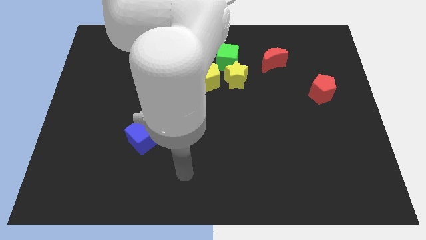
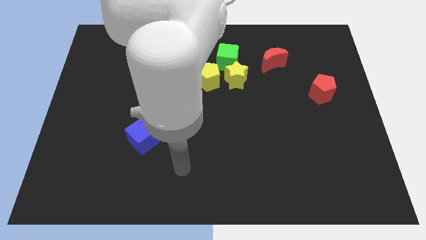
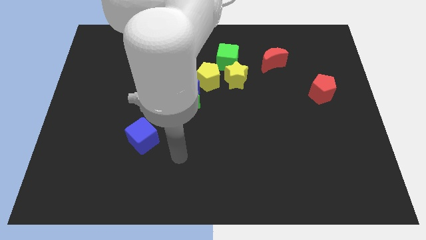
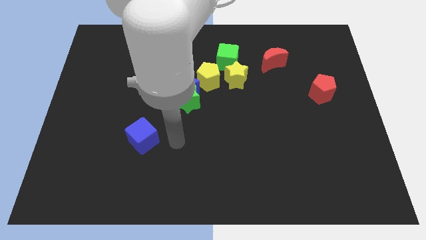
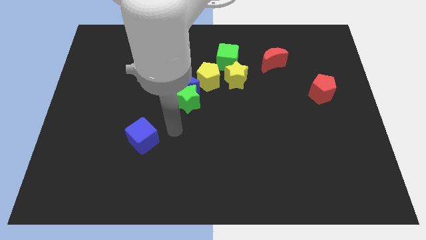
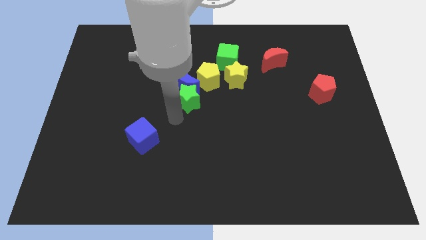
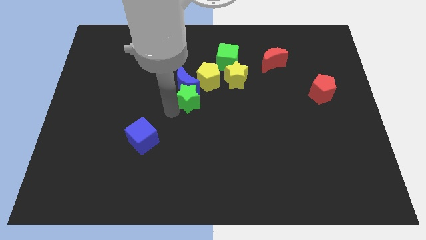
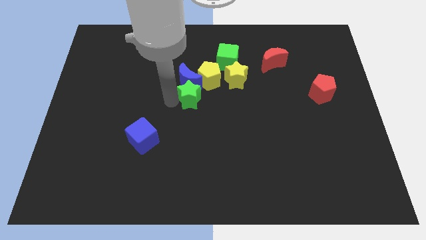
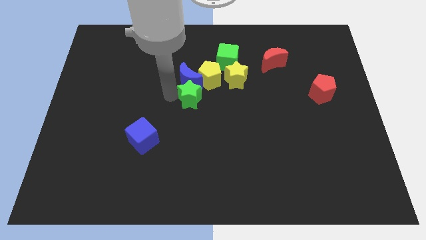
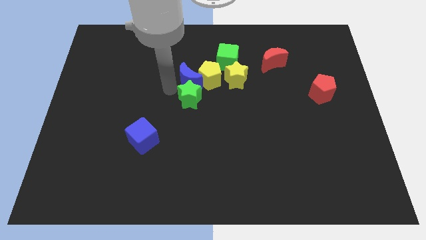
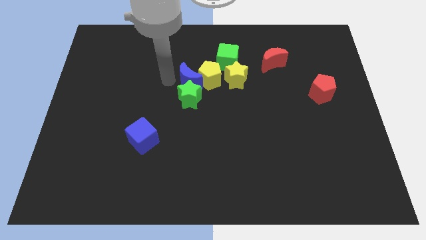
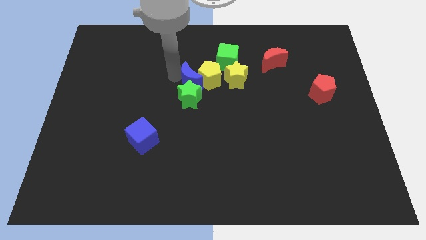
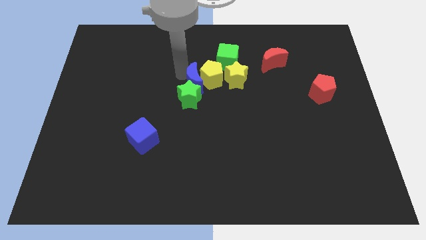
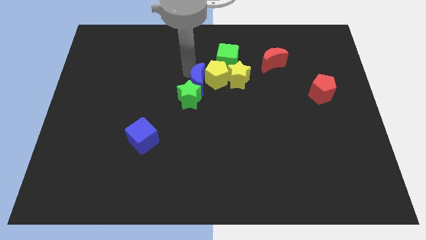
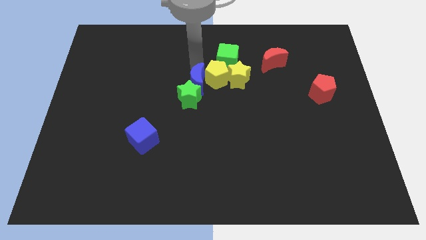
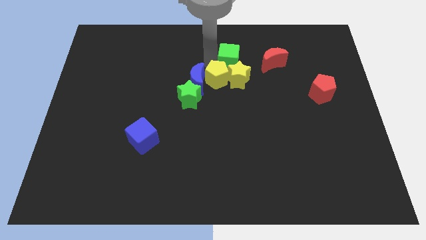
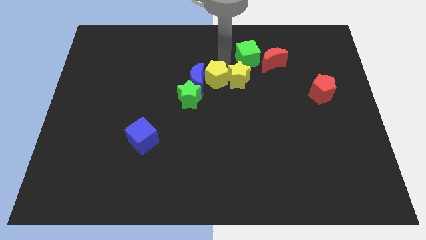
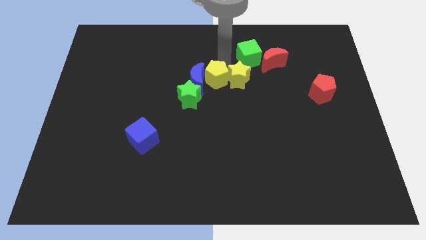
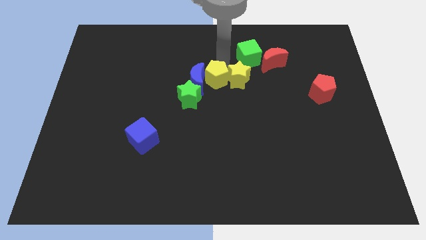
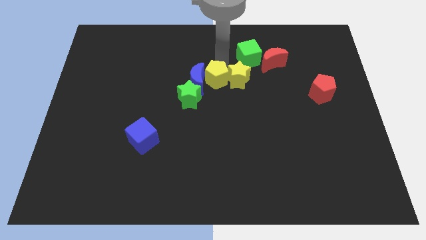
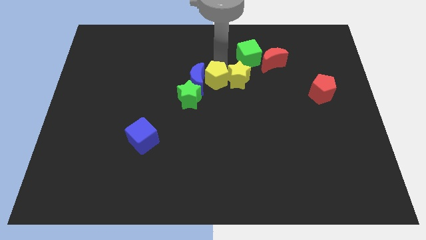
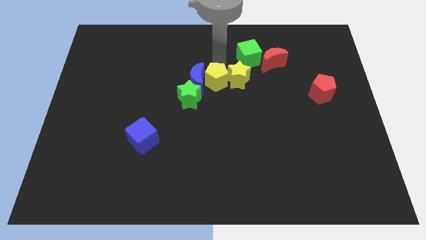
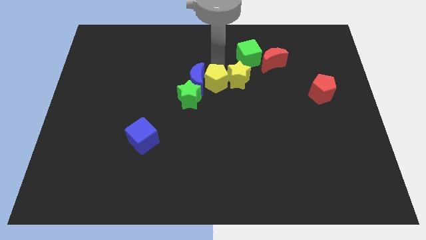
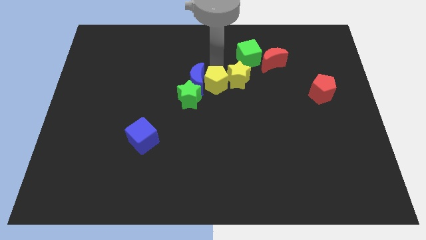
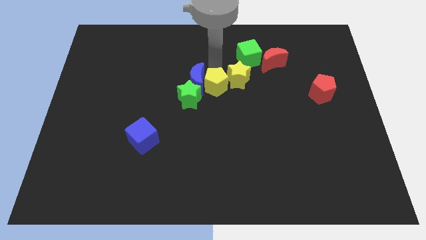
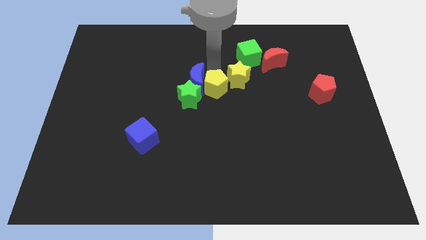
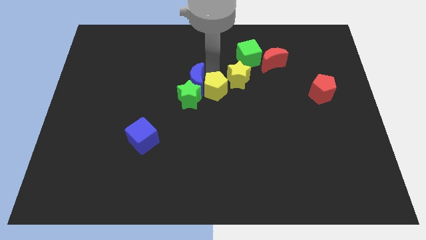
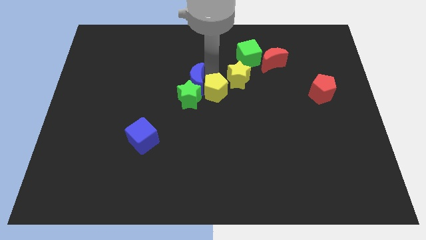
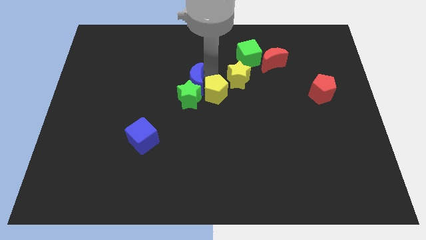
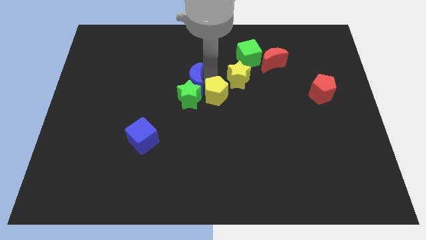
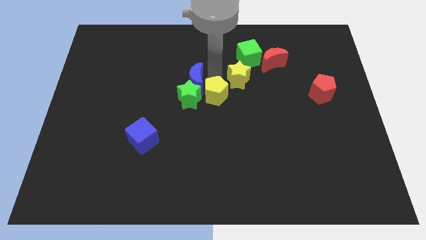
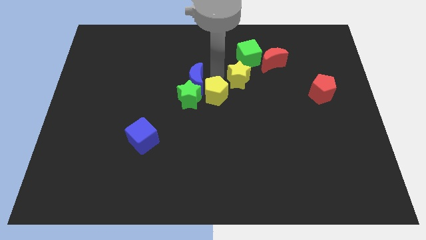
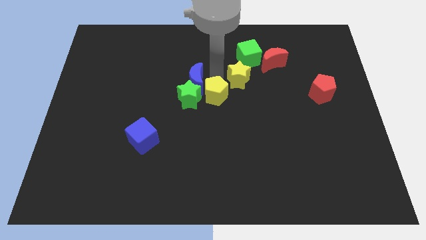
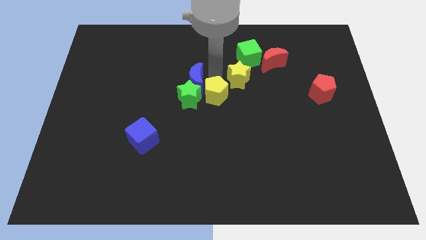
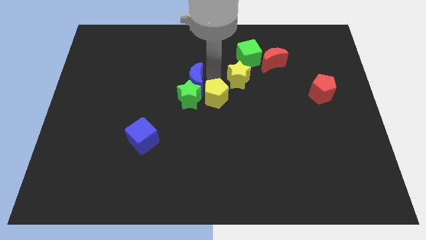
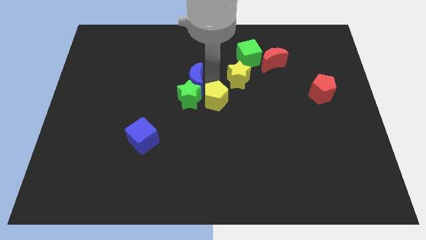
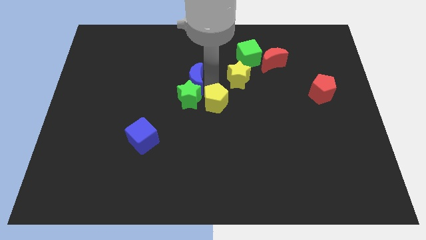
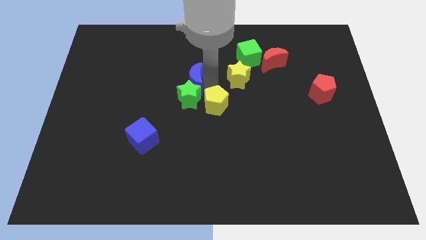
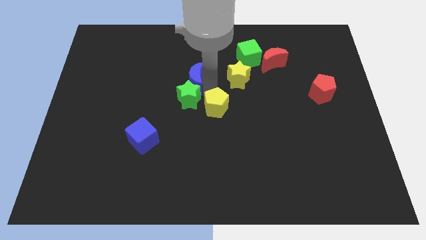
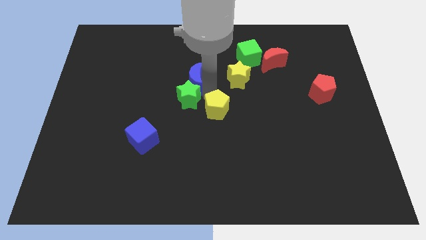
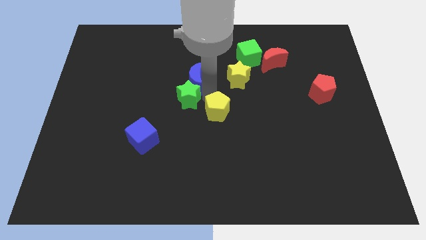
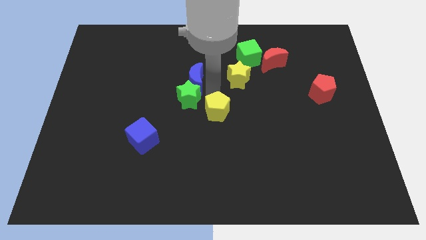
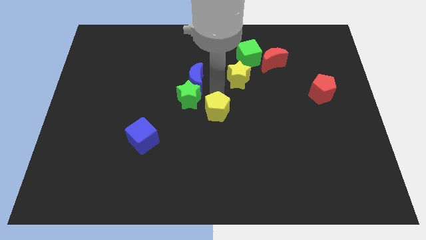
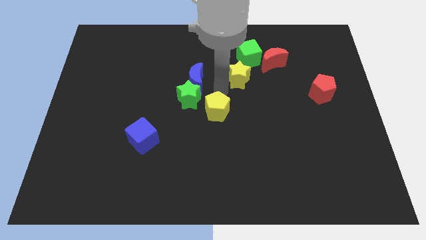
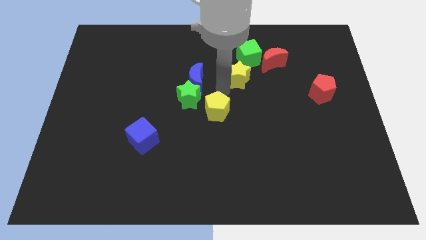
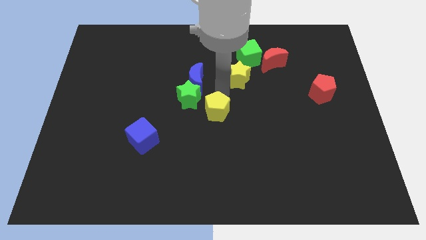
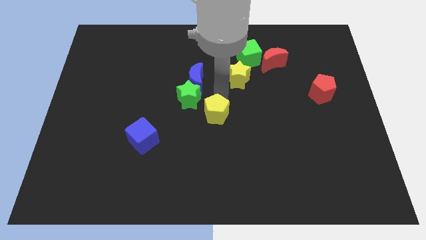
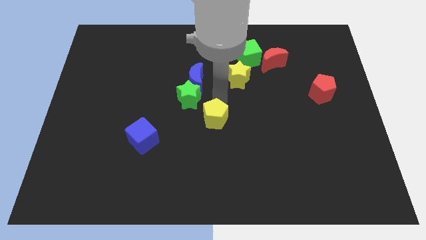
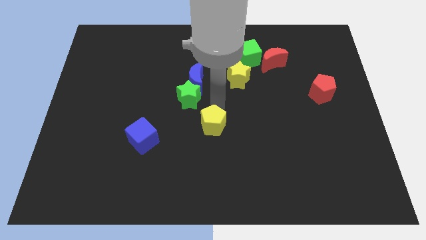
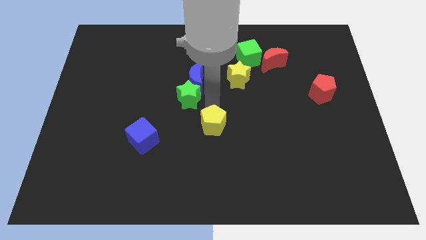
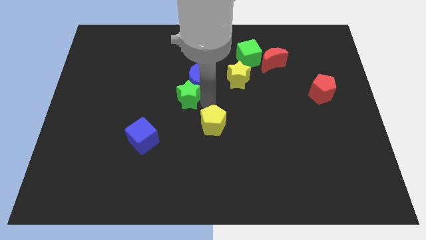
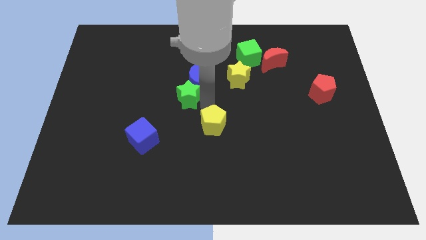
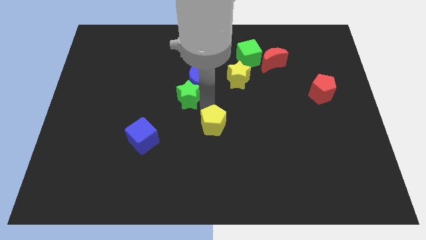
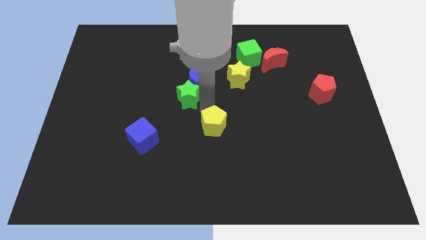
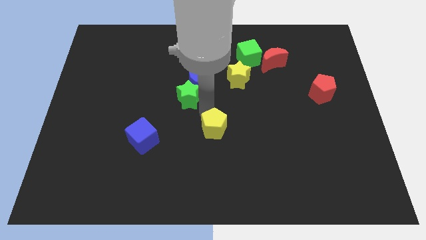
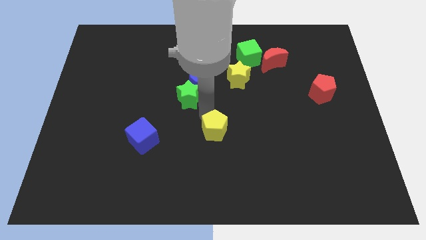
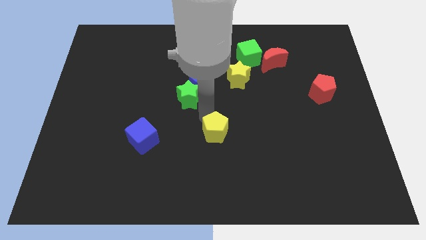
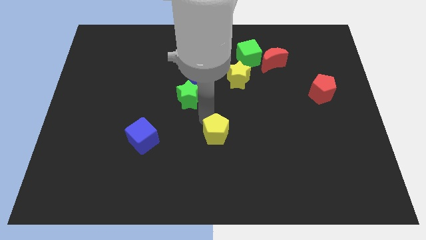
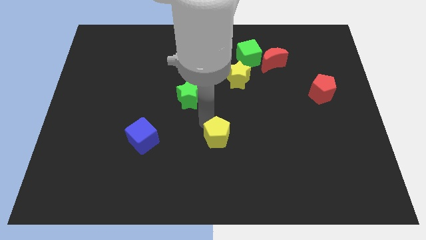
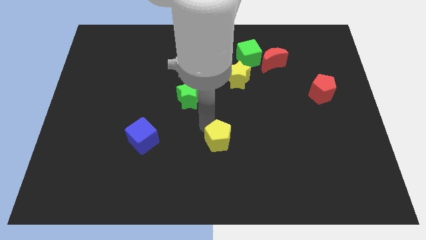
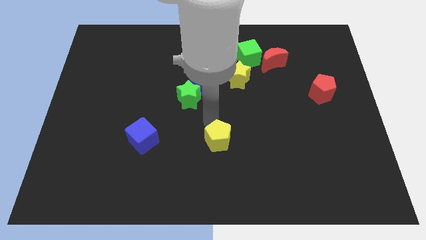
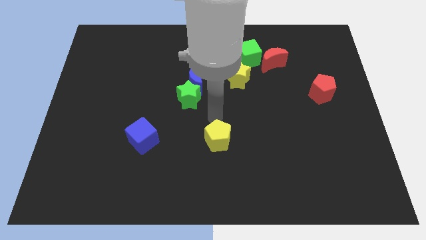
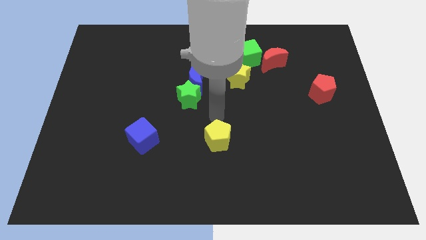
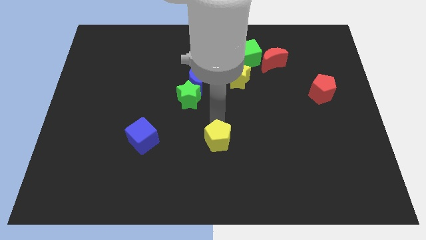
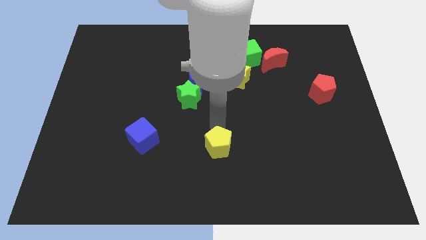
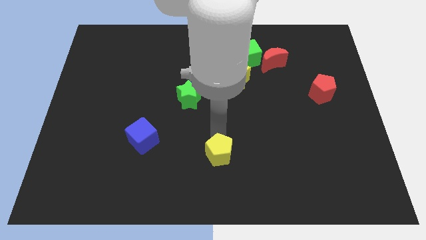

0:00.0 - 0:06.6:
move the yellow pentagon to the bottom side

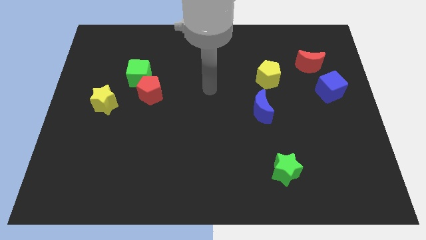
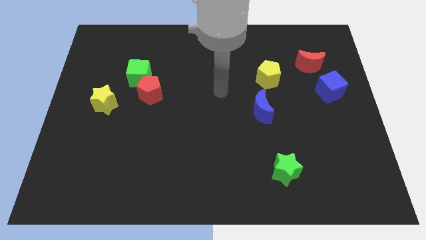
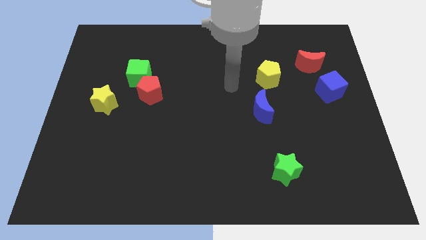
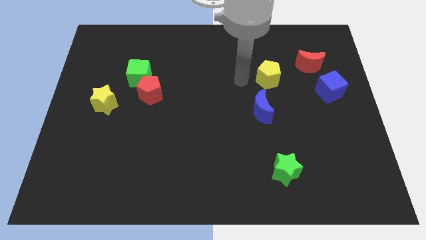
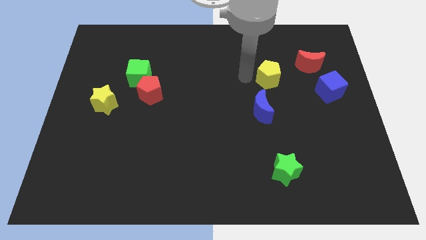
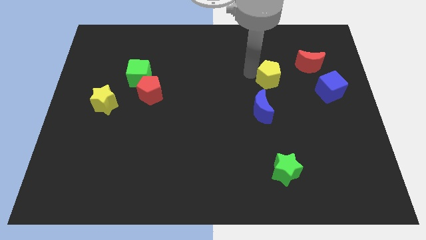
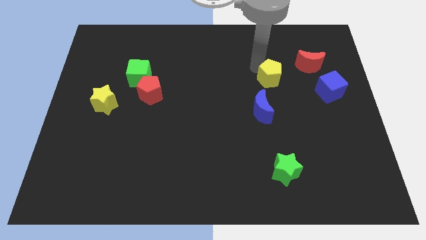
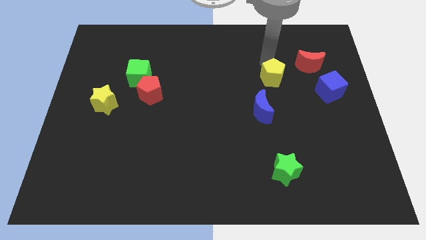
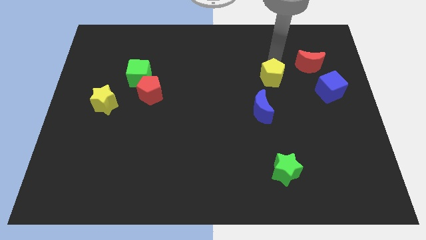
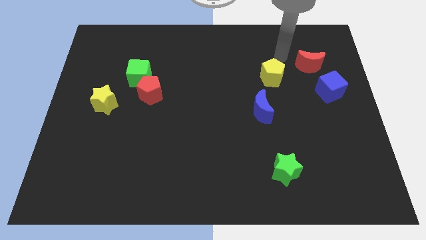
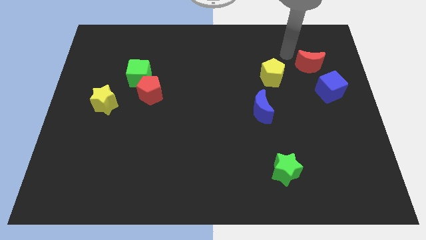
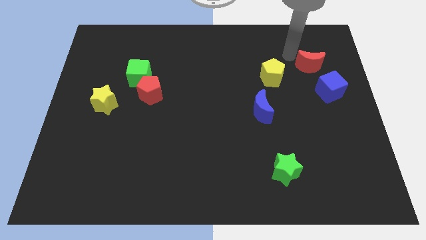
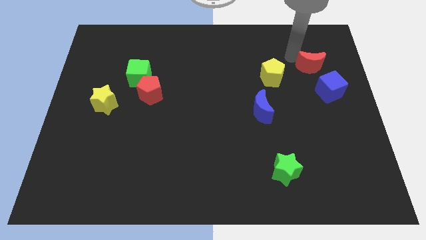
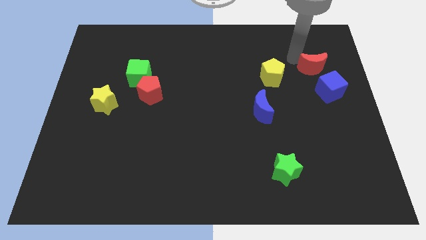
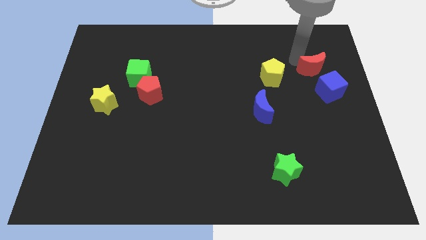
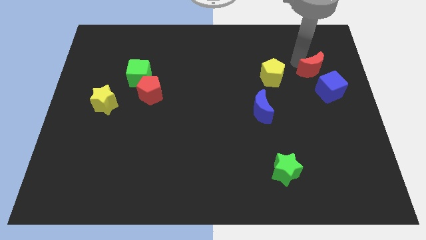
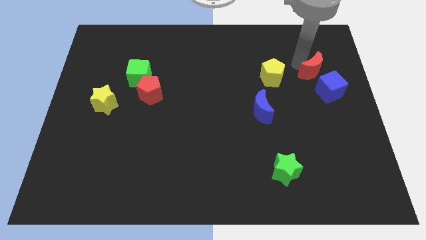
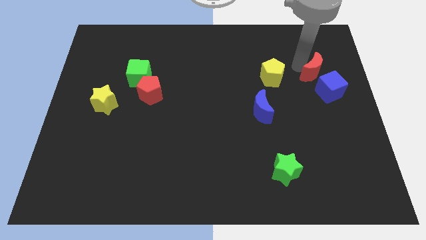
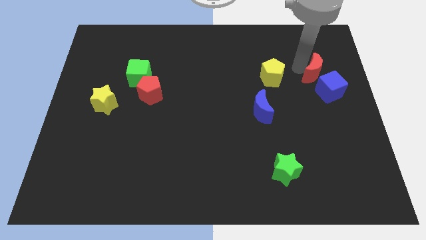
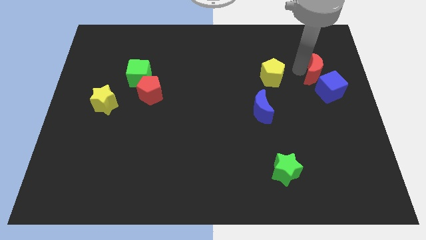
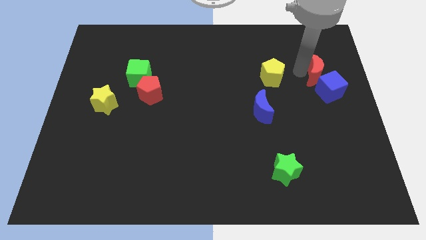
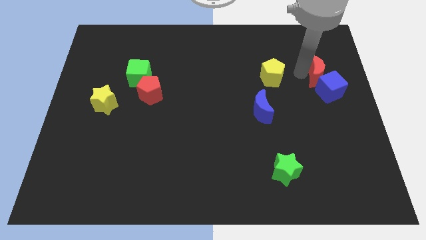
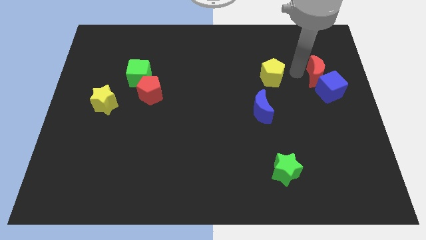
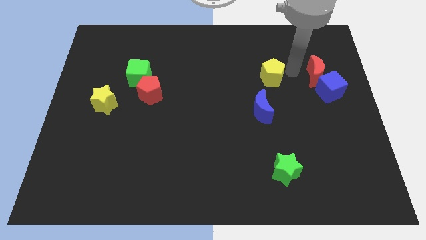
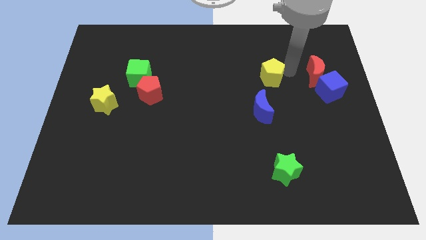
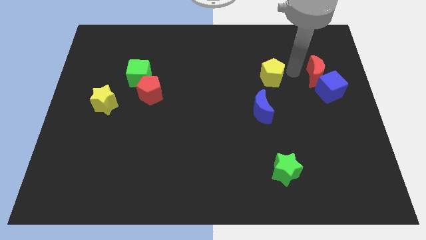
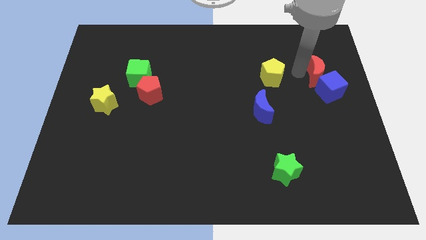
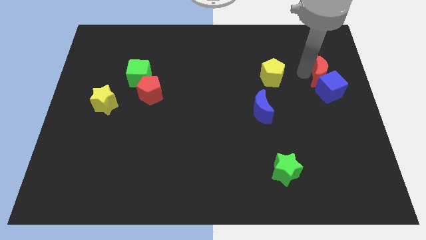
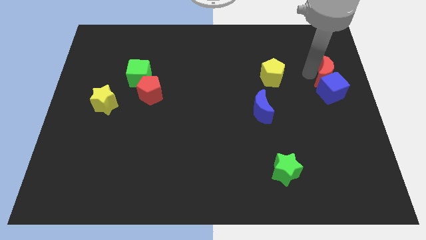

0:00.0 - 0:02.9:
slide the red moon to the center right
